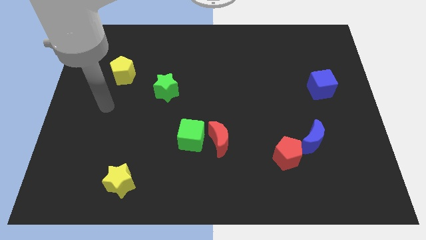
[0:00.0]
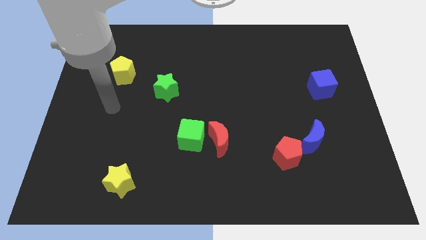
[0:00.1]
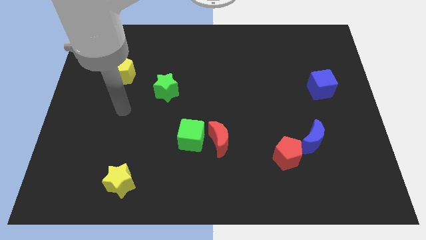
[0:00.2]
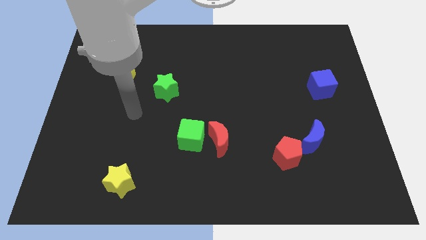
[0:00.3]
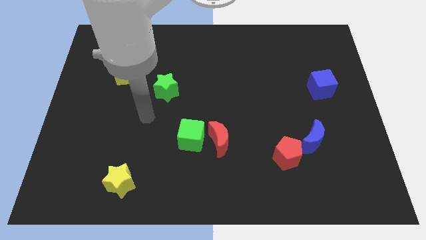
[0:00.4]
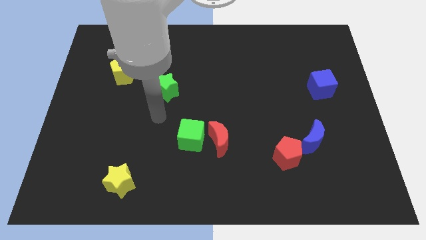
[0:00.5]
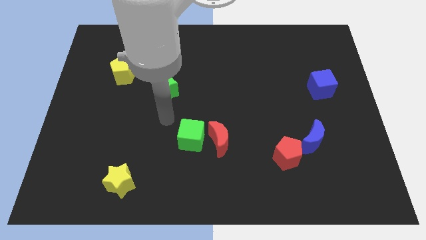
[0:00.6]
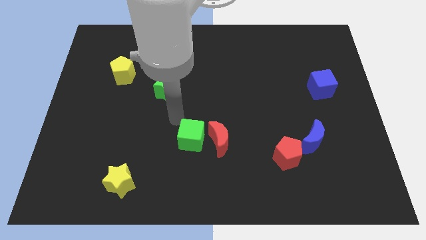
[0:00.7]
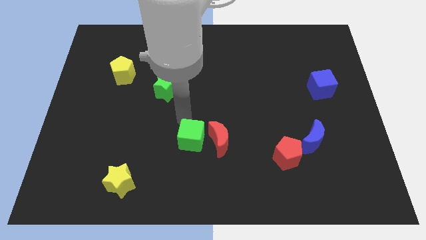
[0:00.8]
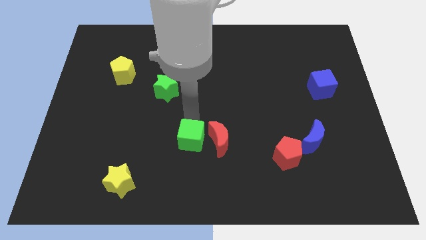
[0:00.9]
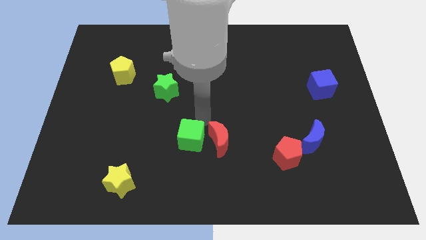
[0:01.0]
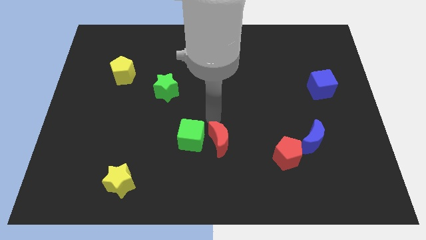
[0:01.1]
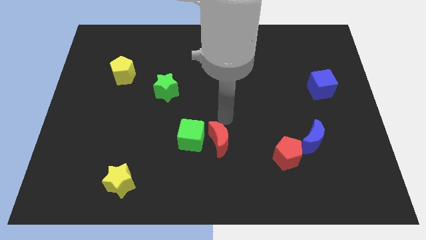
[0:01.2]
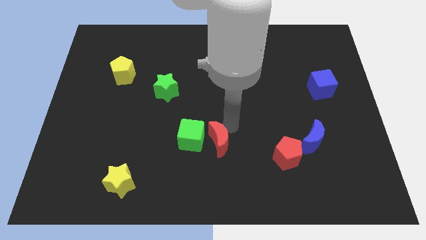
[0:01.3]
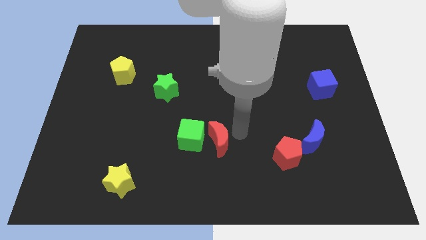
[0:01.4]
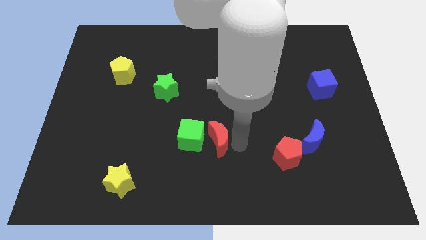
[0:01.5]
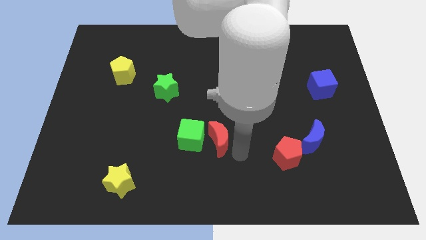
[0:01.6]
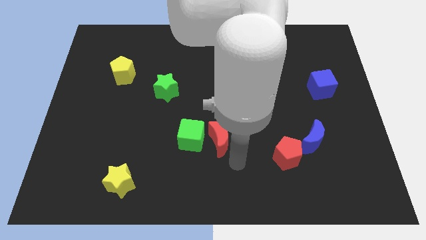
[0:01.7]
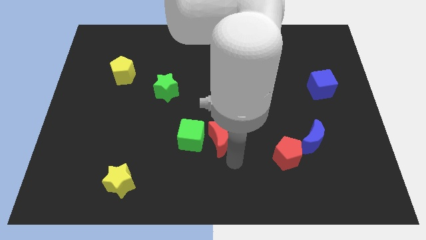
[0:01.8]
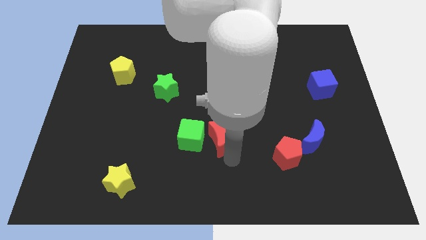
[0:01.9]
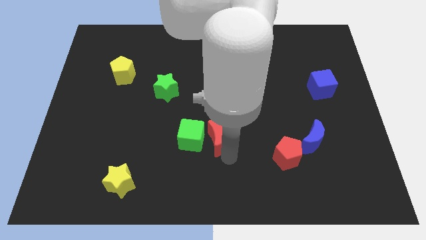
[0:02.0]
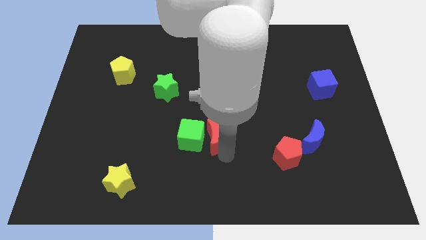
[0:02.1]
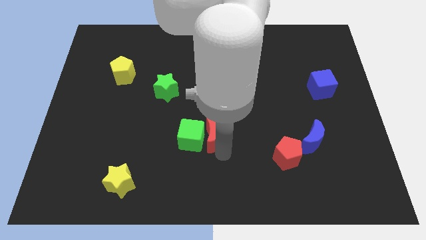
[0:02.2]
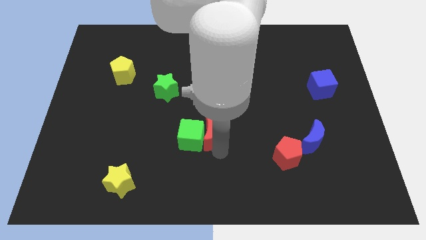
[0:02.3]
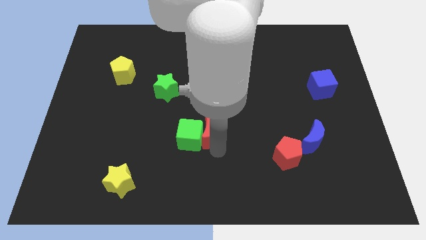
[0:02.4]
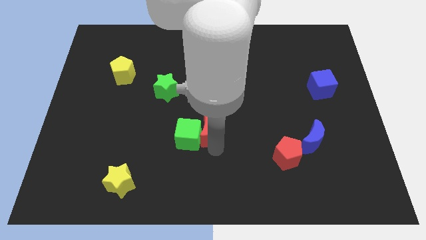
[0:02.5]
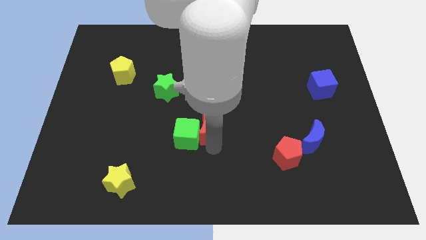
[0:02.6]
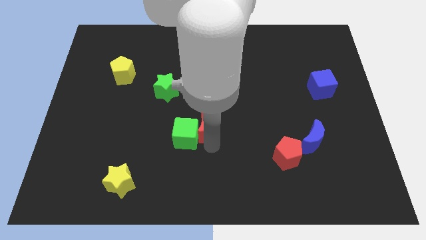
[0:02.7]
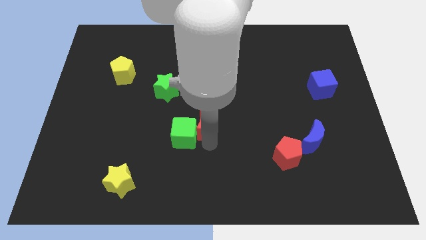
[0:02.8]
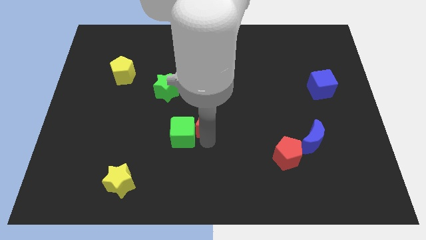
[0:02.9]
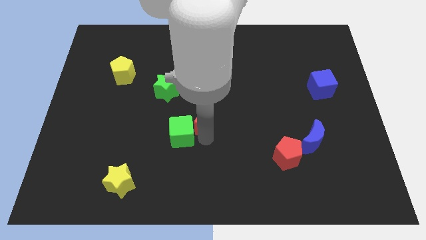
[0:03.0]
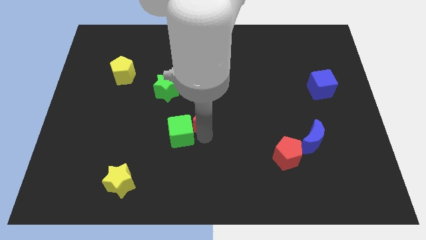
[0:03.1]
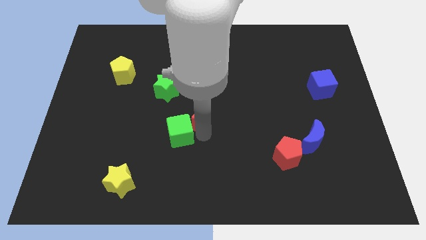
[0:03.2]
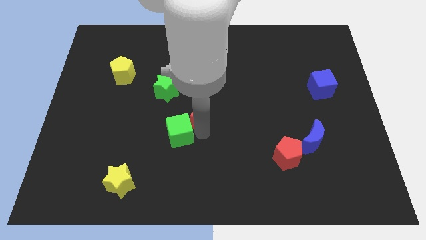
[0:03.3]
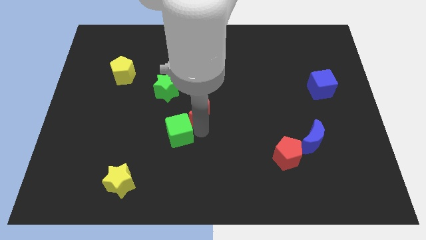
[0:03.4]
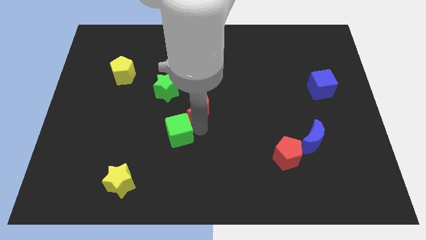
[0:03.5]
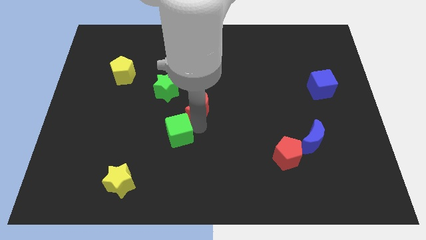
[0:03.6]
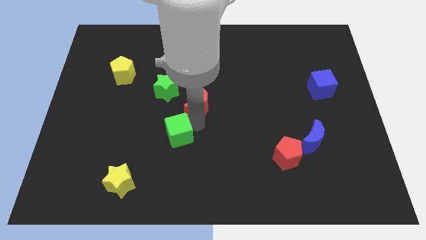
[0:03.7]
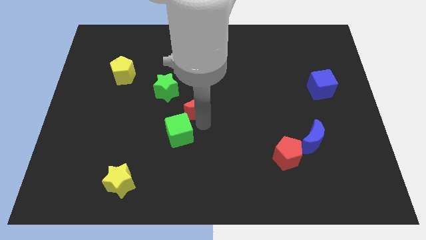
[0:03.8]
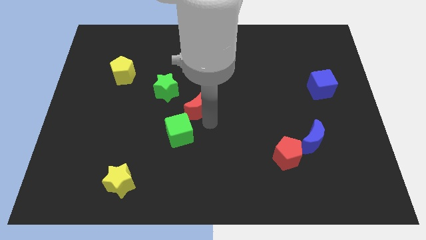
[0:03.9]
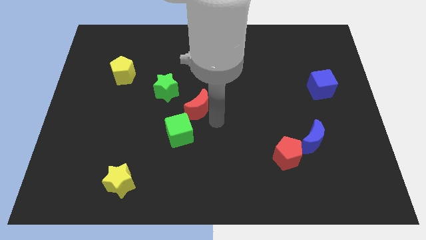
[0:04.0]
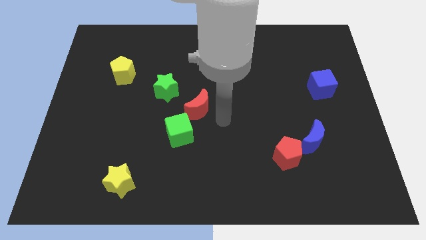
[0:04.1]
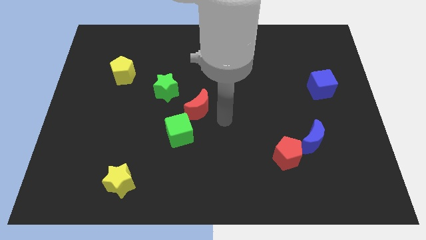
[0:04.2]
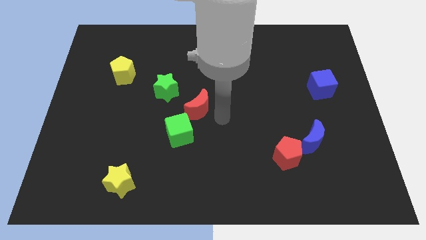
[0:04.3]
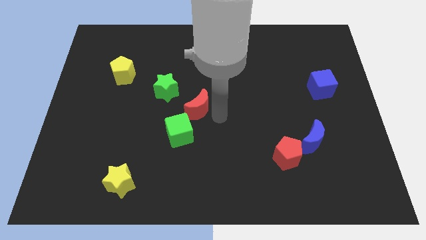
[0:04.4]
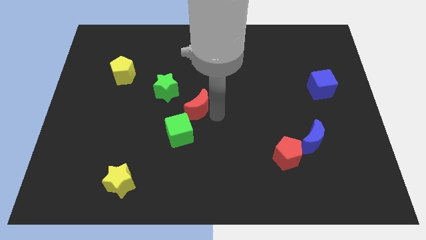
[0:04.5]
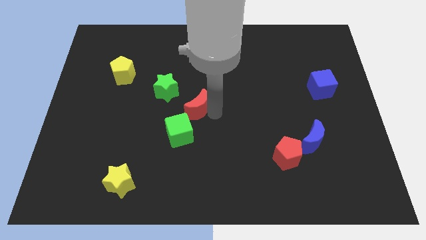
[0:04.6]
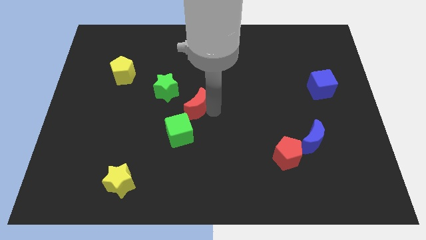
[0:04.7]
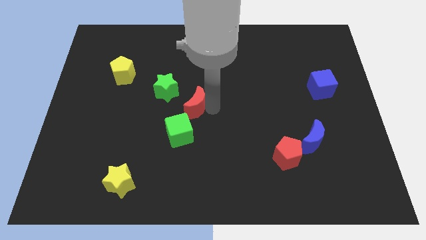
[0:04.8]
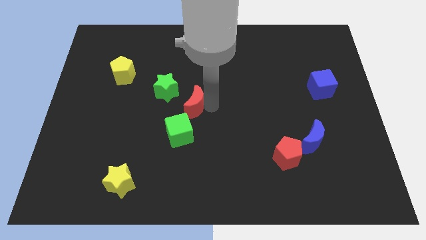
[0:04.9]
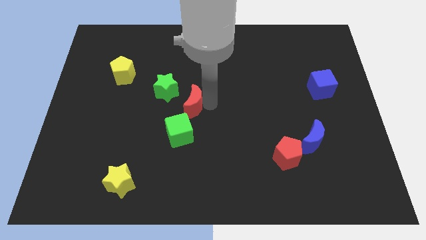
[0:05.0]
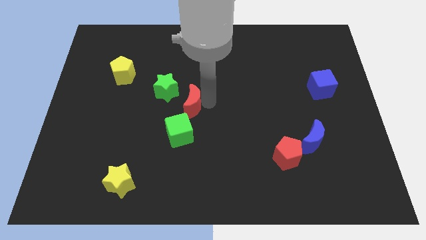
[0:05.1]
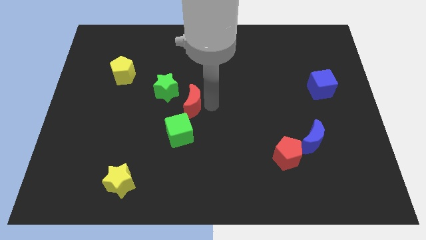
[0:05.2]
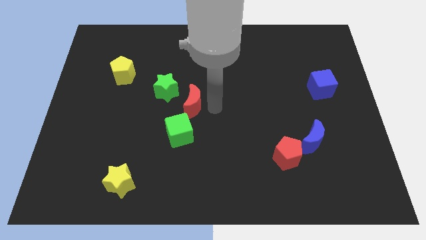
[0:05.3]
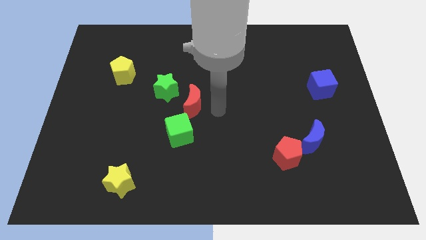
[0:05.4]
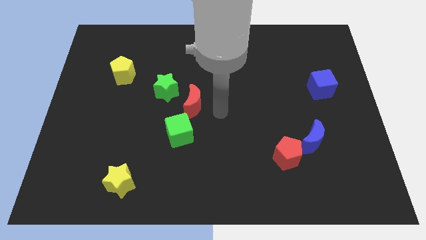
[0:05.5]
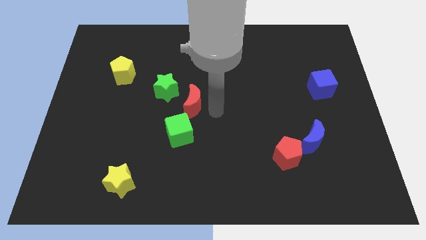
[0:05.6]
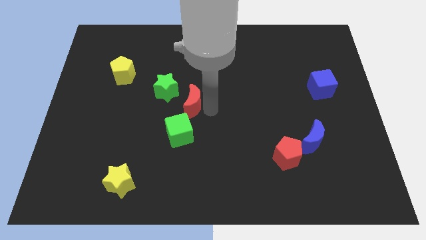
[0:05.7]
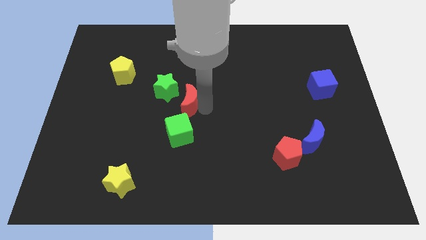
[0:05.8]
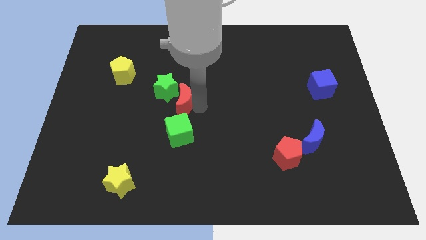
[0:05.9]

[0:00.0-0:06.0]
move the red moon next to the green star

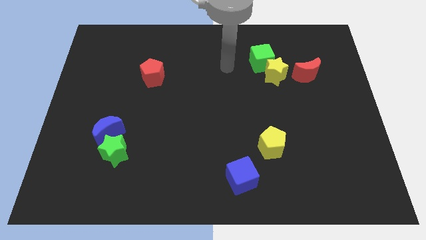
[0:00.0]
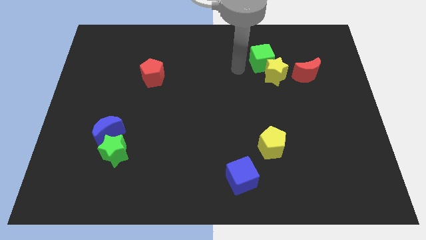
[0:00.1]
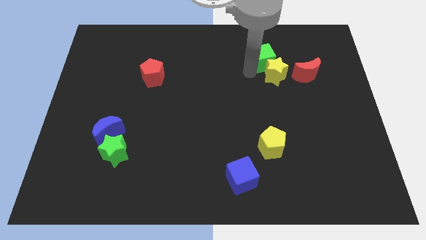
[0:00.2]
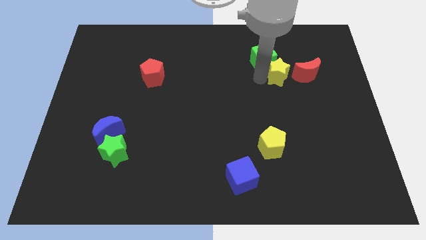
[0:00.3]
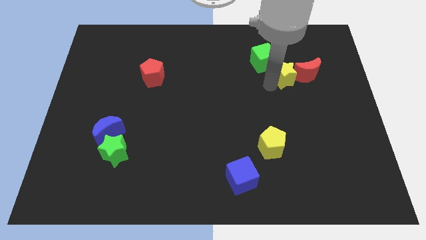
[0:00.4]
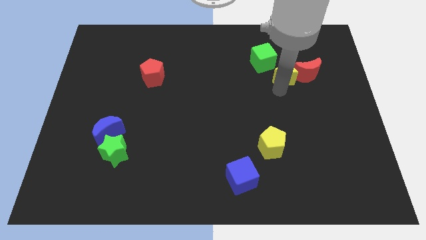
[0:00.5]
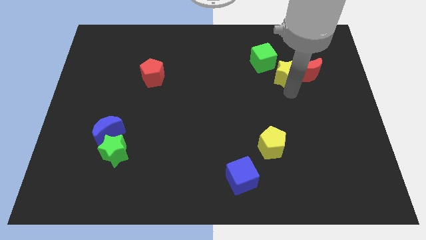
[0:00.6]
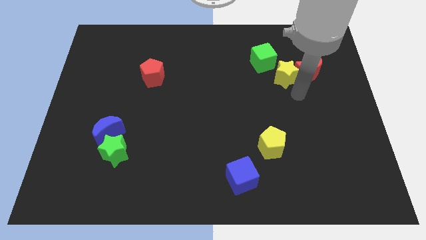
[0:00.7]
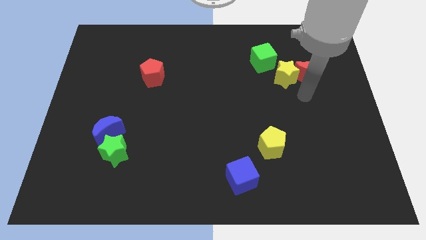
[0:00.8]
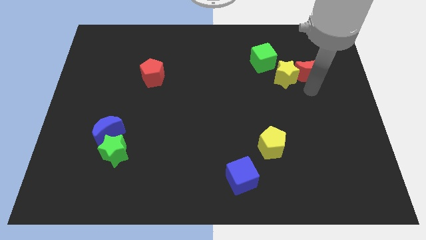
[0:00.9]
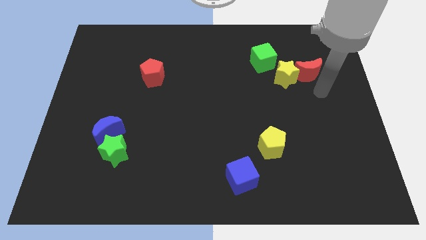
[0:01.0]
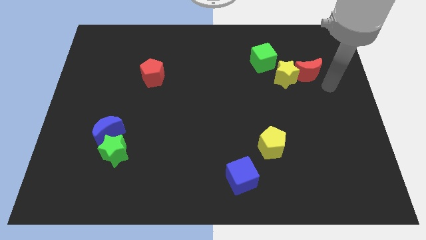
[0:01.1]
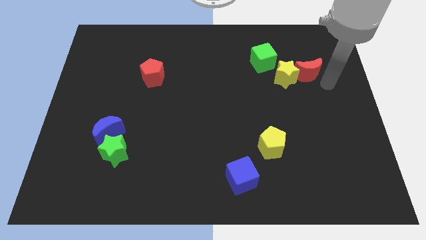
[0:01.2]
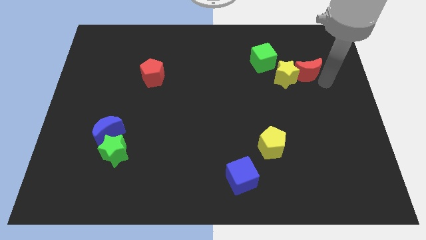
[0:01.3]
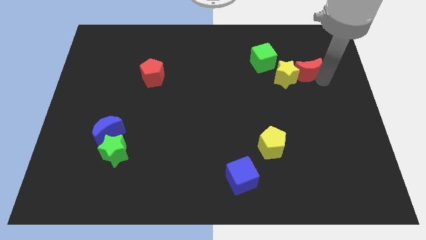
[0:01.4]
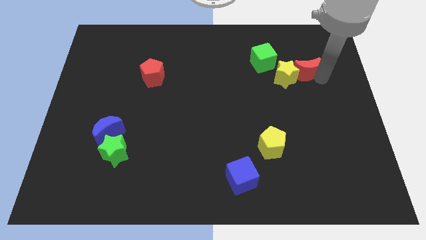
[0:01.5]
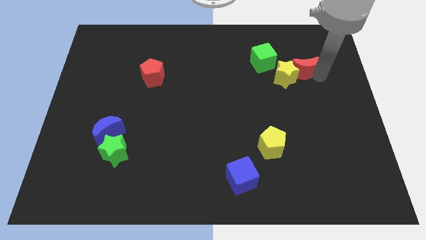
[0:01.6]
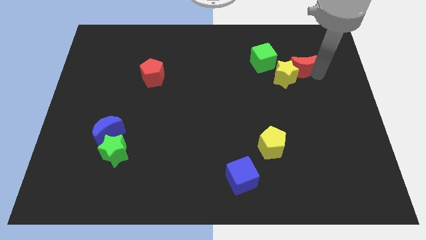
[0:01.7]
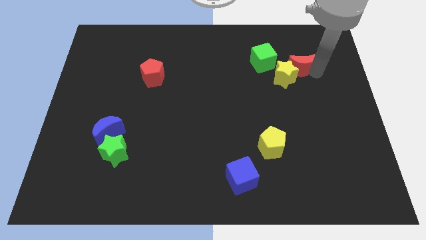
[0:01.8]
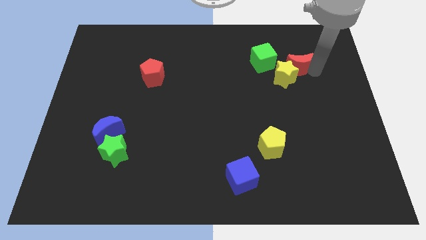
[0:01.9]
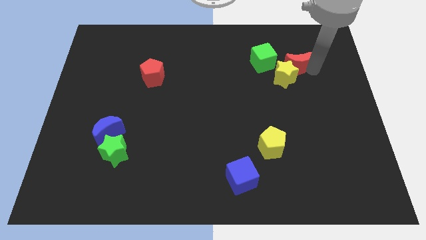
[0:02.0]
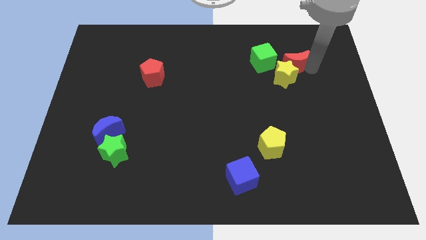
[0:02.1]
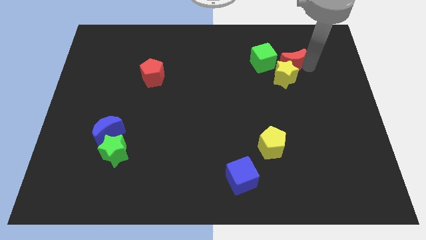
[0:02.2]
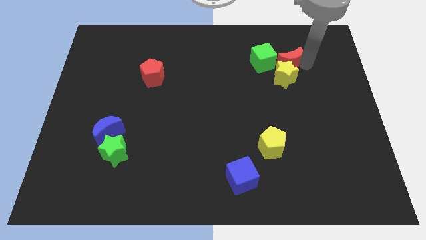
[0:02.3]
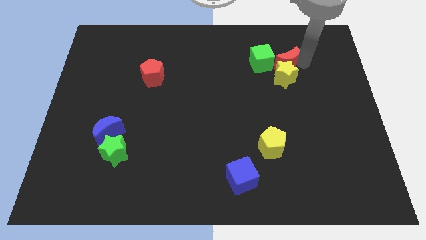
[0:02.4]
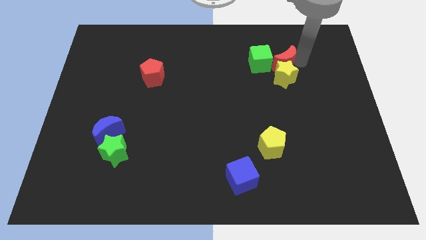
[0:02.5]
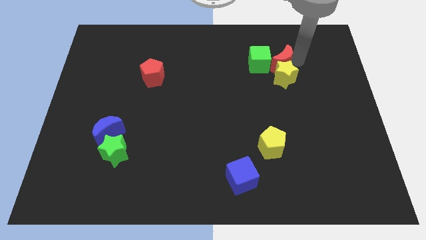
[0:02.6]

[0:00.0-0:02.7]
push the red moon towards the green cube
